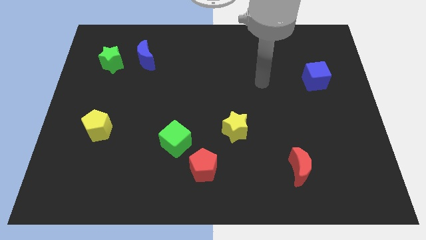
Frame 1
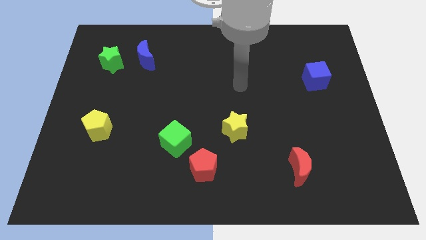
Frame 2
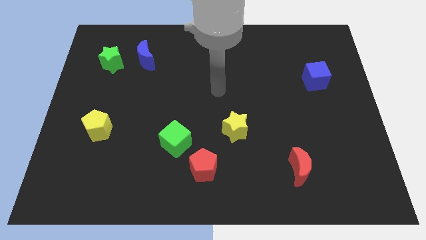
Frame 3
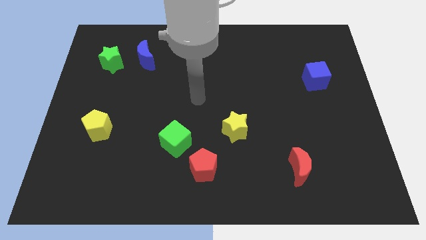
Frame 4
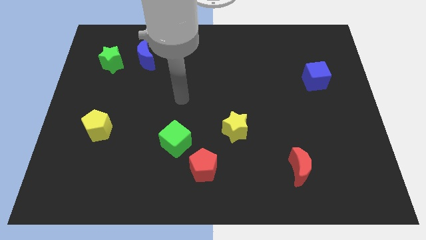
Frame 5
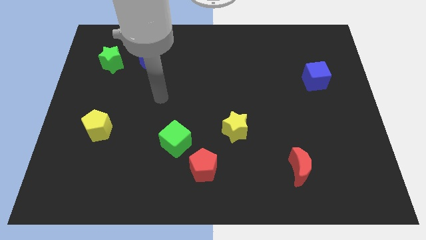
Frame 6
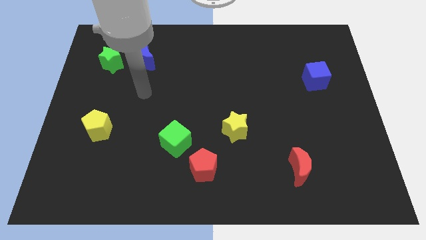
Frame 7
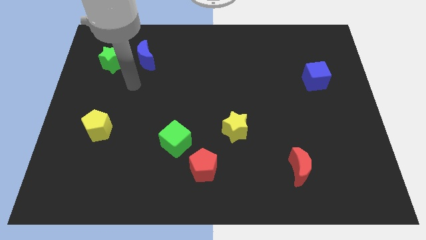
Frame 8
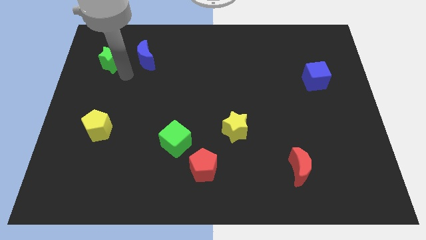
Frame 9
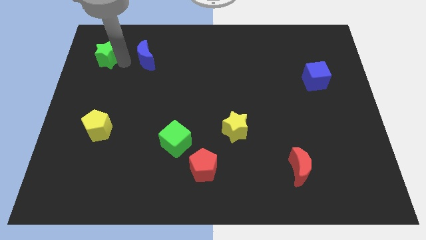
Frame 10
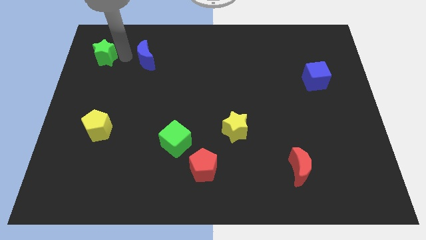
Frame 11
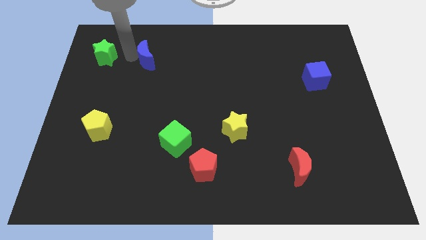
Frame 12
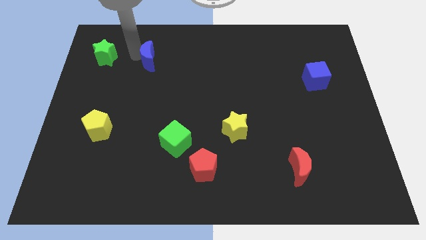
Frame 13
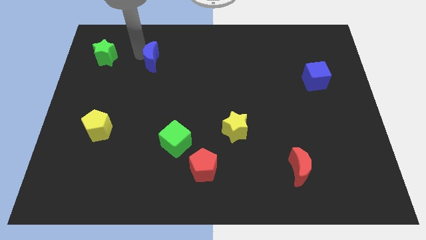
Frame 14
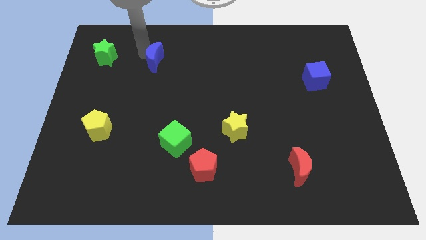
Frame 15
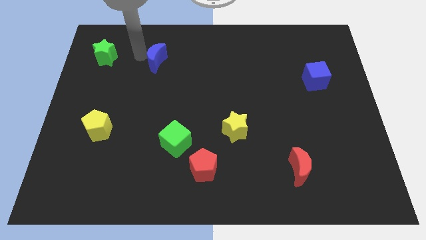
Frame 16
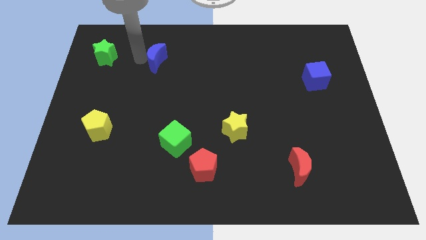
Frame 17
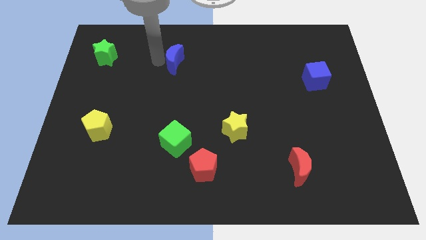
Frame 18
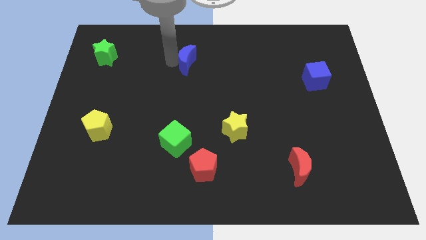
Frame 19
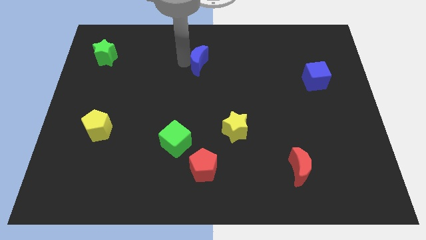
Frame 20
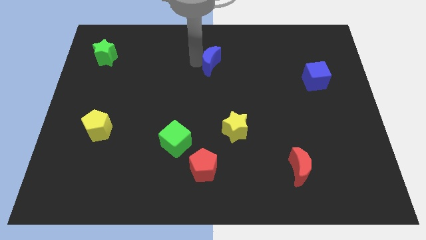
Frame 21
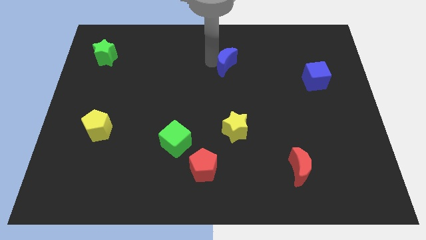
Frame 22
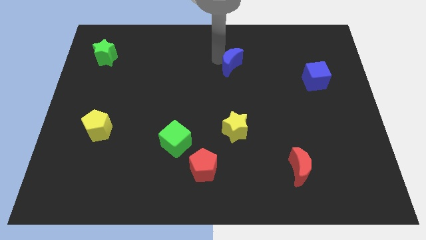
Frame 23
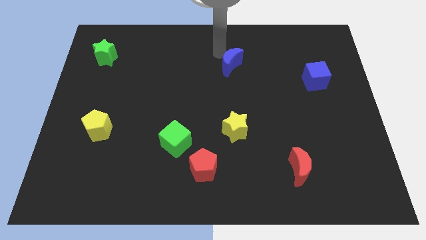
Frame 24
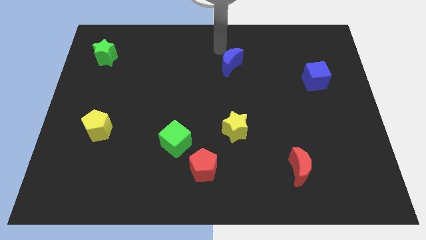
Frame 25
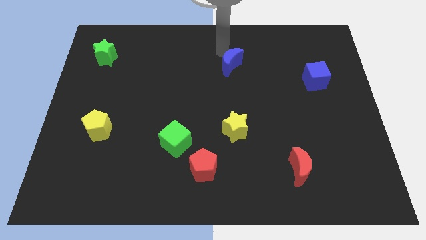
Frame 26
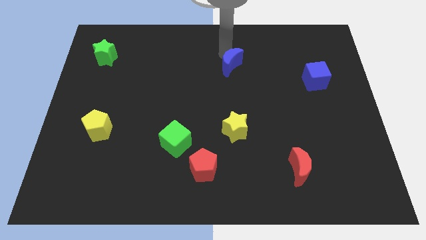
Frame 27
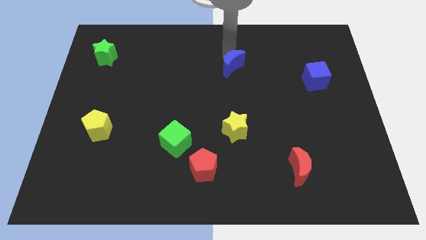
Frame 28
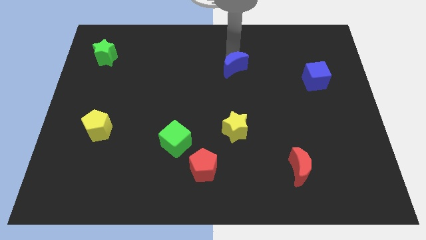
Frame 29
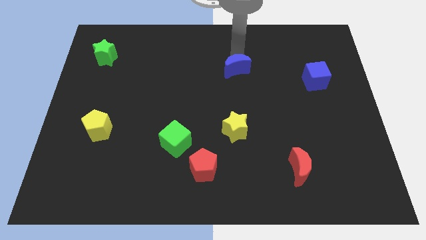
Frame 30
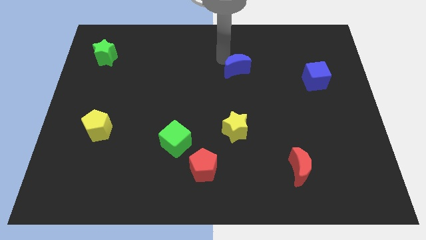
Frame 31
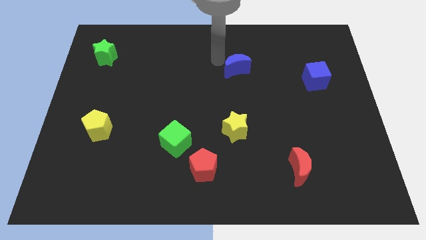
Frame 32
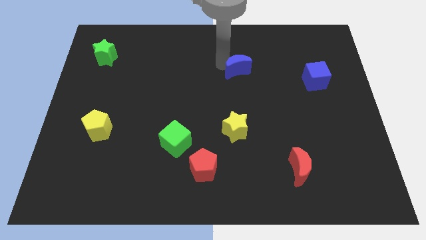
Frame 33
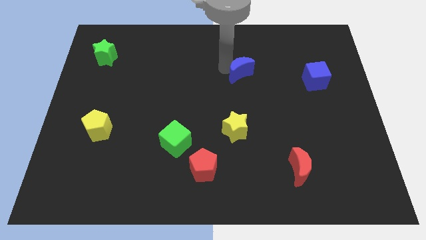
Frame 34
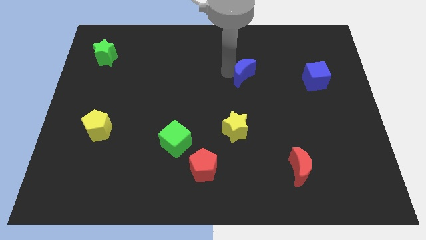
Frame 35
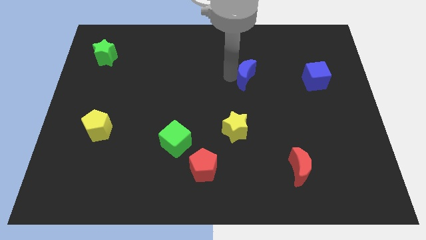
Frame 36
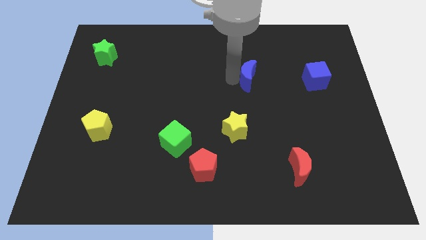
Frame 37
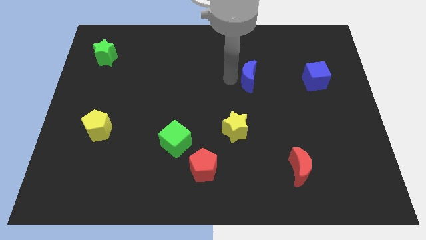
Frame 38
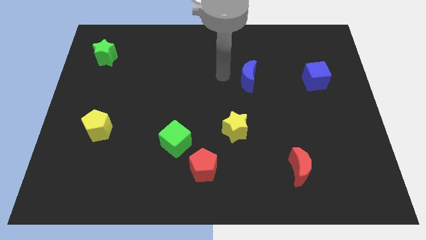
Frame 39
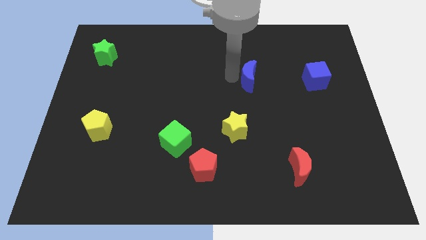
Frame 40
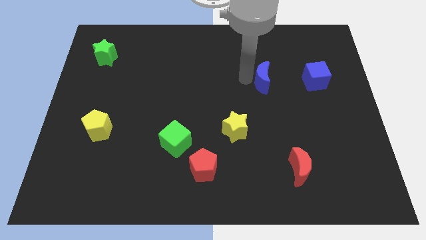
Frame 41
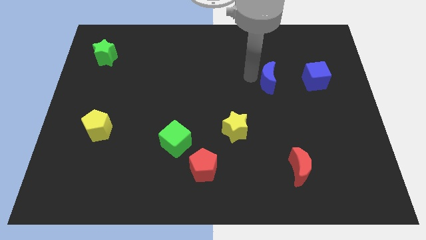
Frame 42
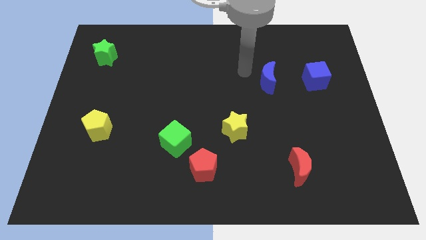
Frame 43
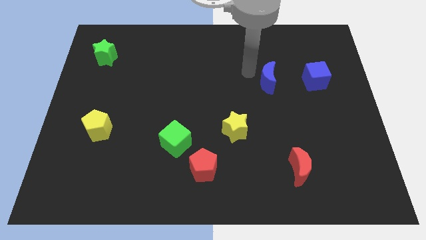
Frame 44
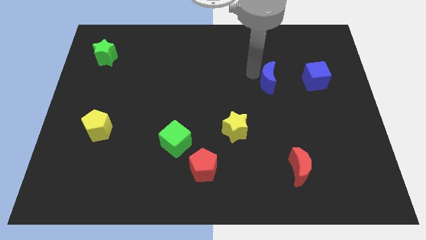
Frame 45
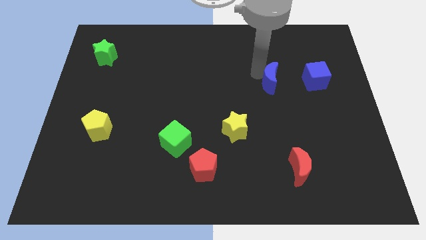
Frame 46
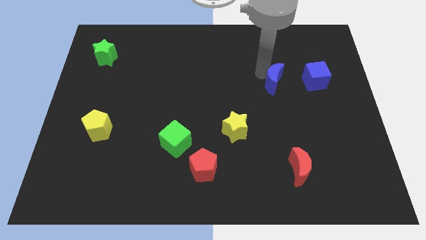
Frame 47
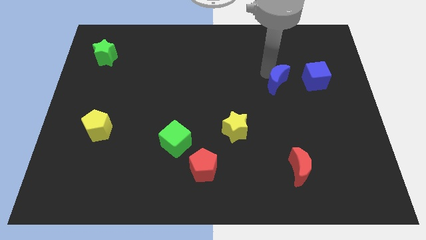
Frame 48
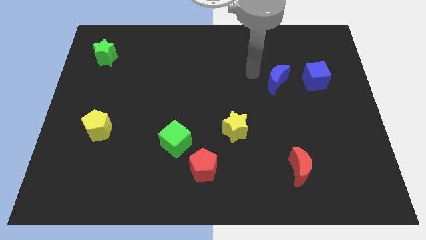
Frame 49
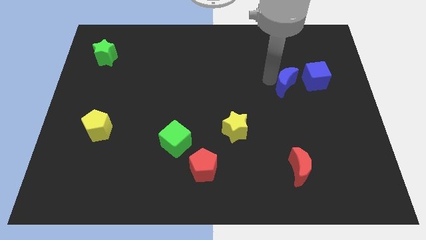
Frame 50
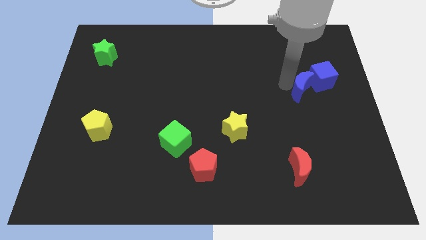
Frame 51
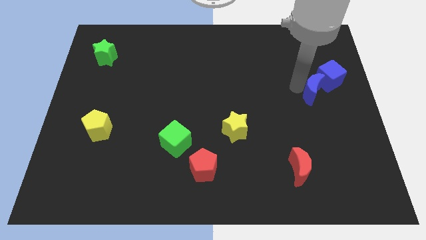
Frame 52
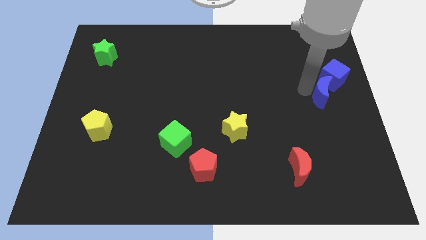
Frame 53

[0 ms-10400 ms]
put the blue moon to the center right

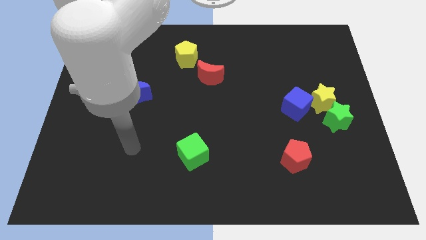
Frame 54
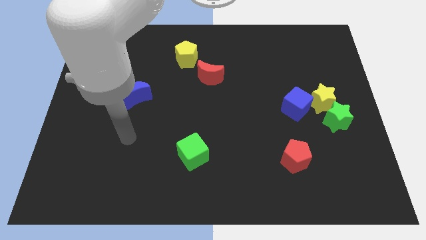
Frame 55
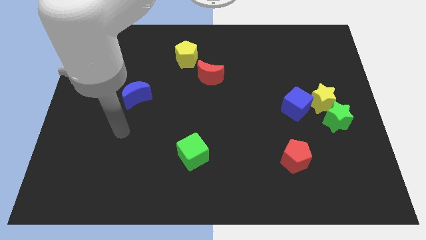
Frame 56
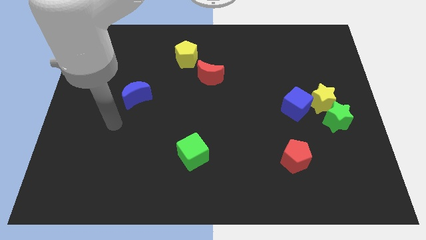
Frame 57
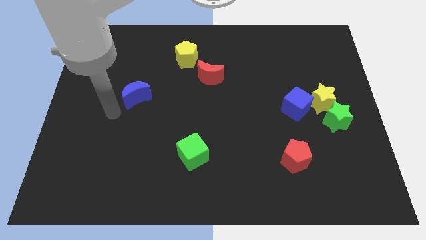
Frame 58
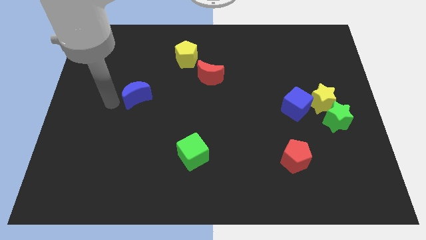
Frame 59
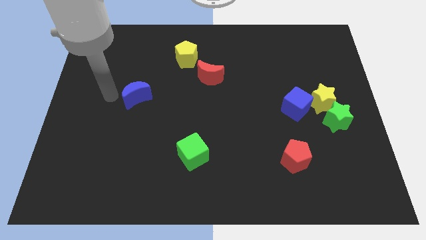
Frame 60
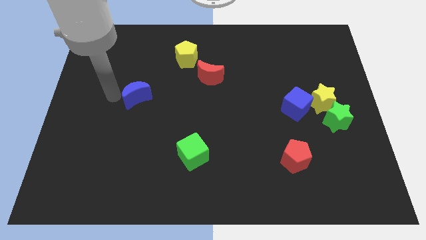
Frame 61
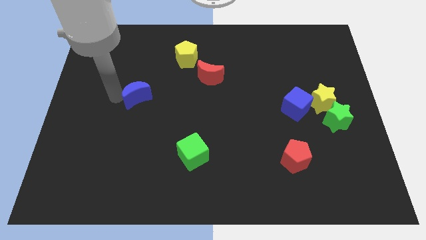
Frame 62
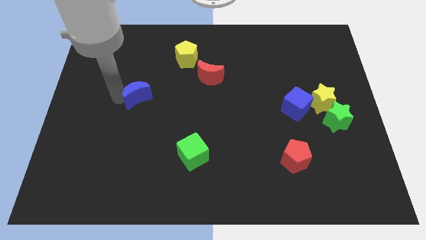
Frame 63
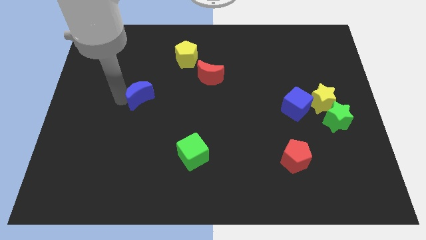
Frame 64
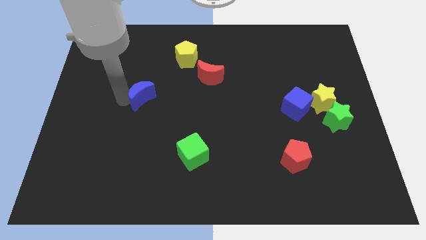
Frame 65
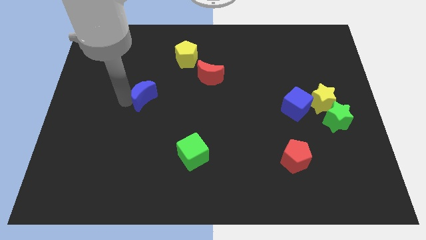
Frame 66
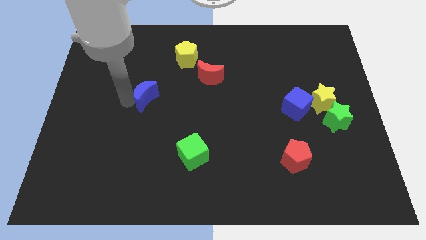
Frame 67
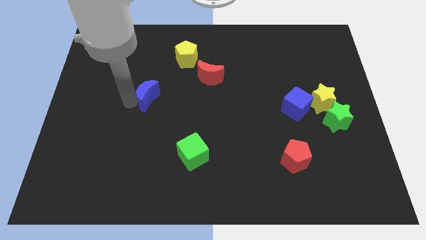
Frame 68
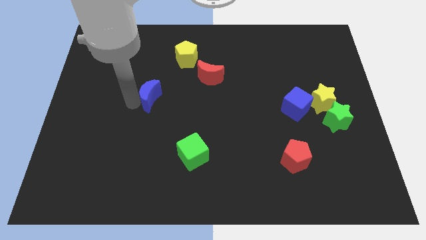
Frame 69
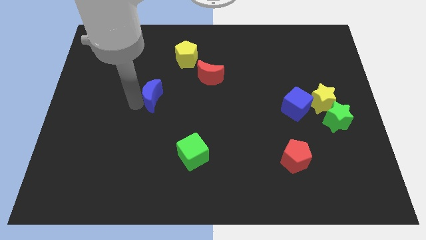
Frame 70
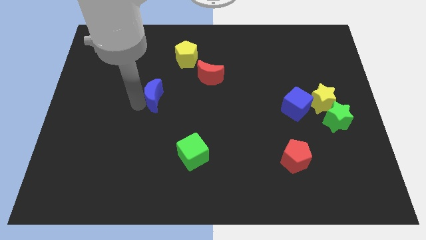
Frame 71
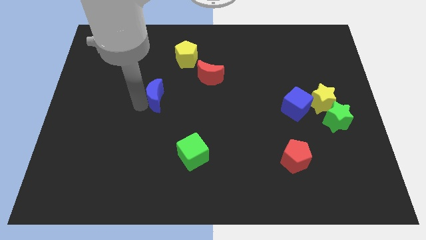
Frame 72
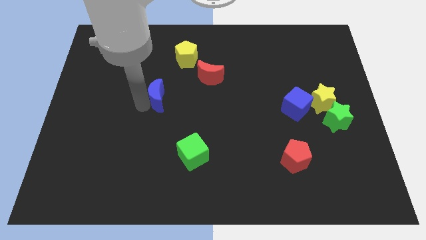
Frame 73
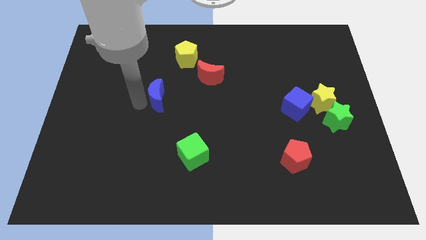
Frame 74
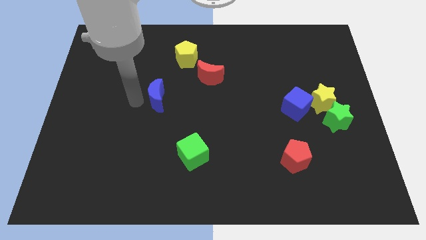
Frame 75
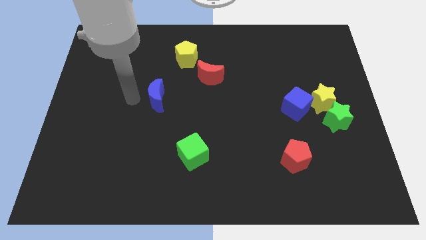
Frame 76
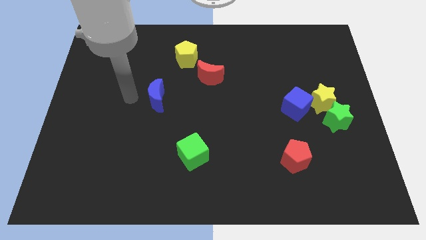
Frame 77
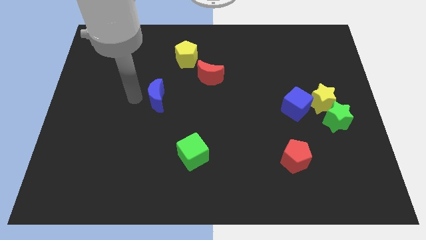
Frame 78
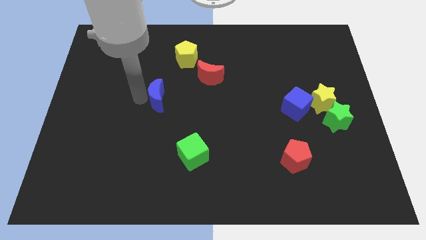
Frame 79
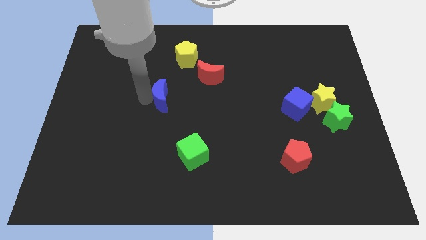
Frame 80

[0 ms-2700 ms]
move the blue moon to the center
